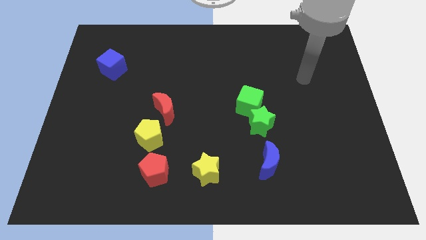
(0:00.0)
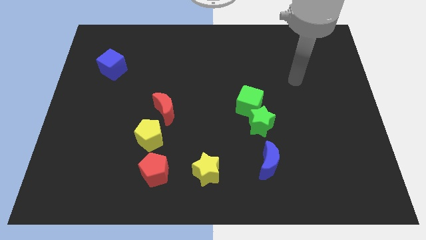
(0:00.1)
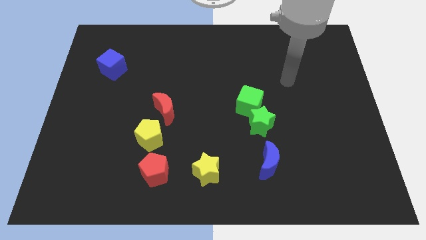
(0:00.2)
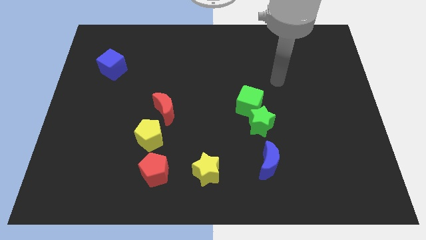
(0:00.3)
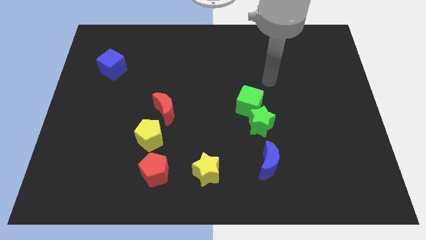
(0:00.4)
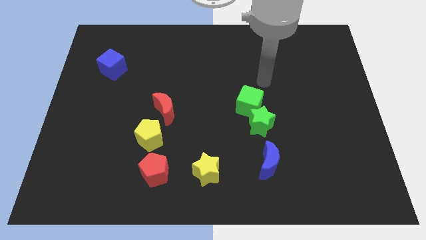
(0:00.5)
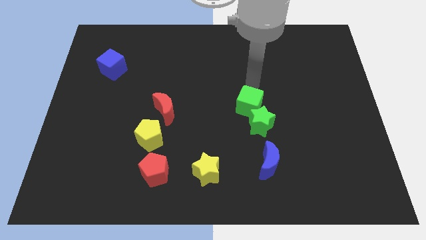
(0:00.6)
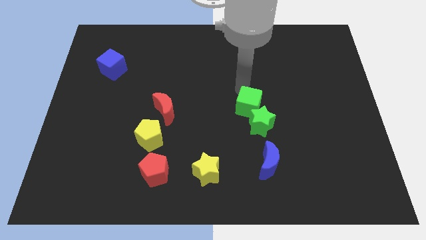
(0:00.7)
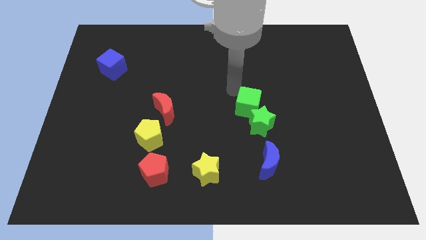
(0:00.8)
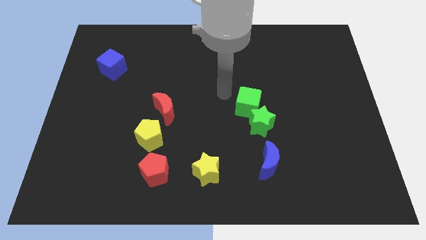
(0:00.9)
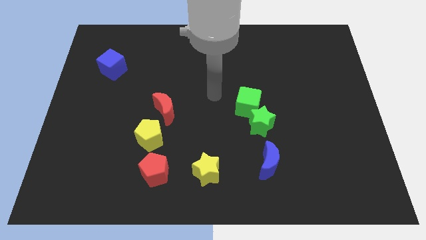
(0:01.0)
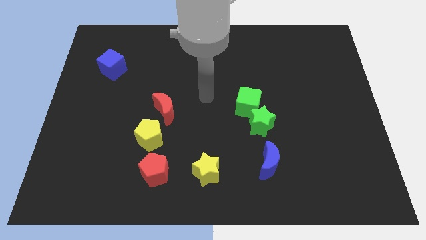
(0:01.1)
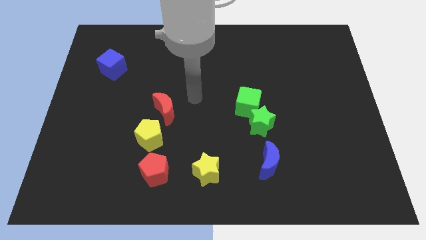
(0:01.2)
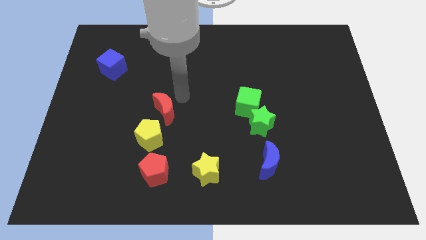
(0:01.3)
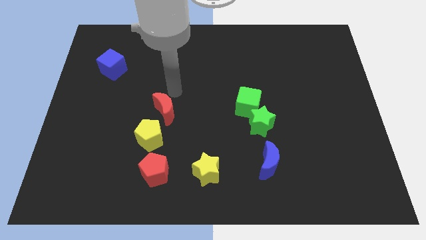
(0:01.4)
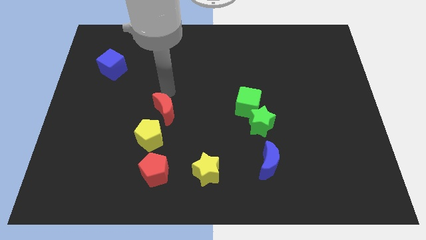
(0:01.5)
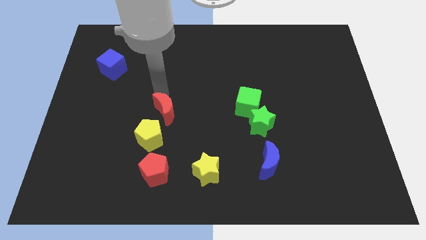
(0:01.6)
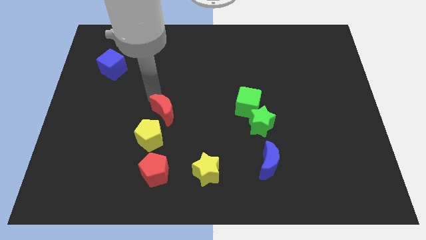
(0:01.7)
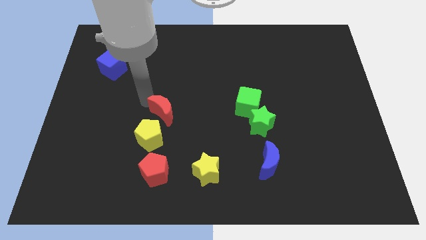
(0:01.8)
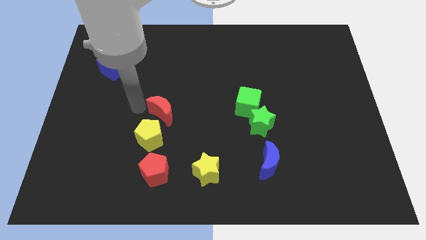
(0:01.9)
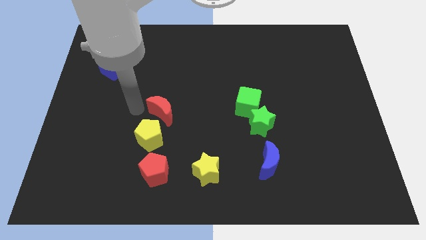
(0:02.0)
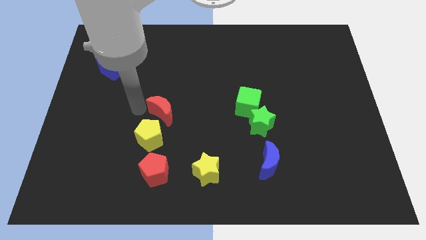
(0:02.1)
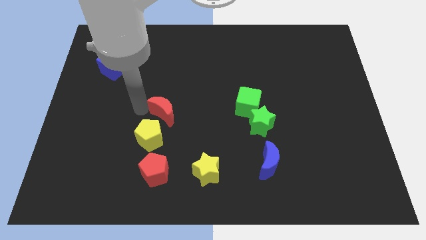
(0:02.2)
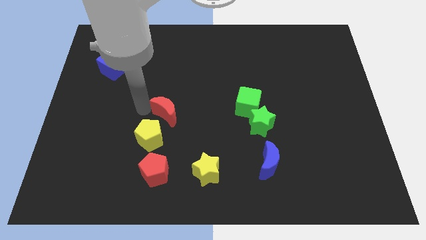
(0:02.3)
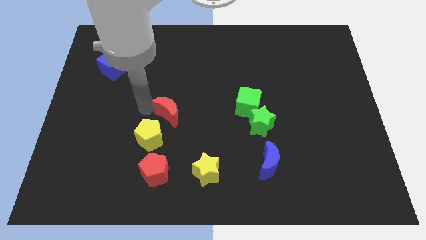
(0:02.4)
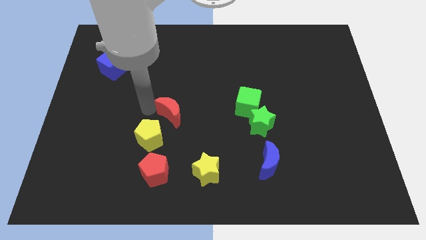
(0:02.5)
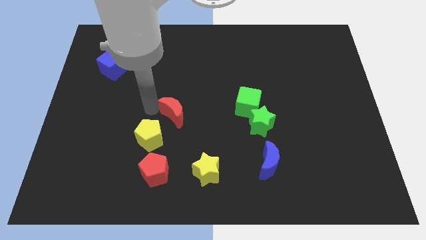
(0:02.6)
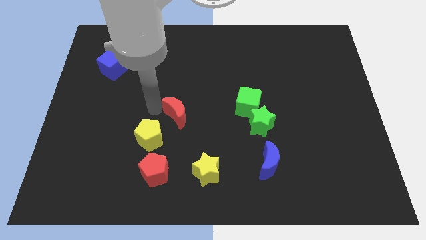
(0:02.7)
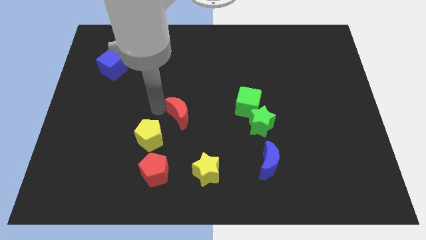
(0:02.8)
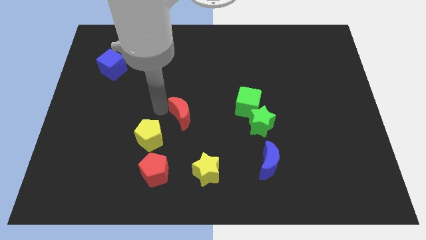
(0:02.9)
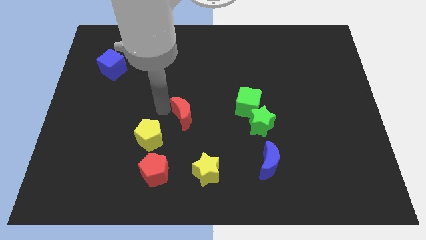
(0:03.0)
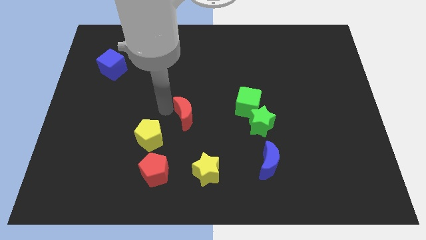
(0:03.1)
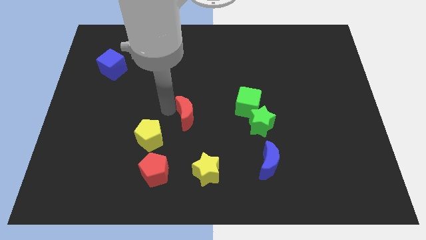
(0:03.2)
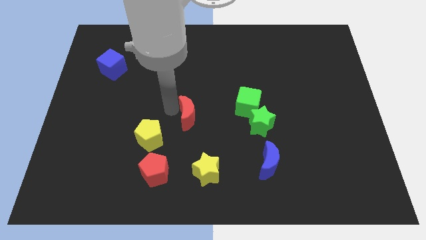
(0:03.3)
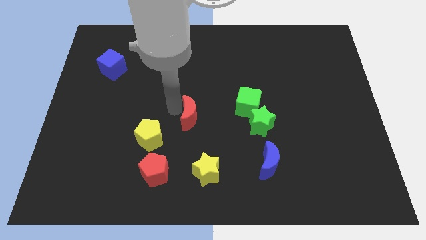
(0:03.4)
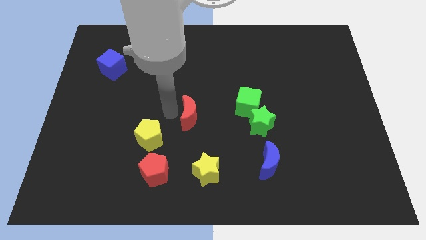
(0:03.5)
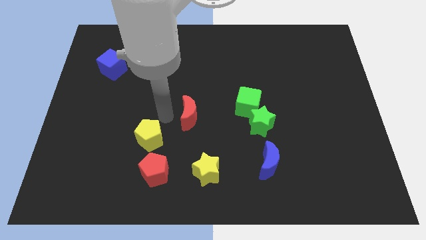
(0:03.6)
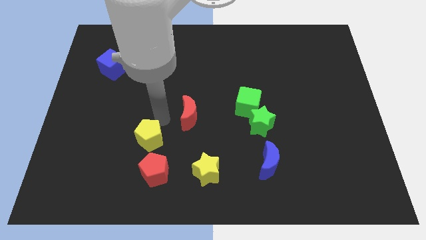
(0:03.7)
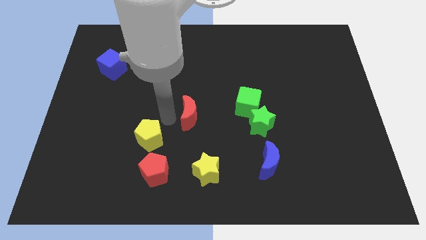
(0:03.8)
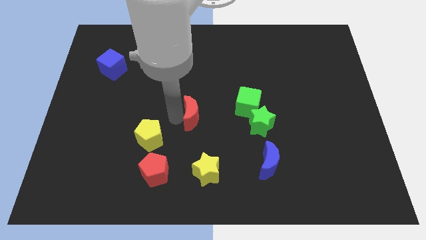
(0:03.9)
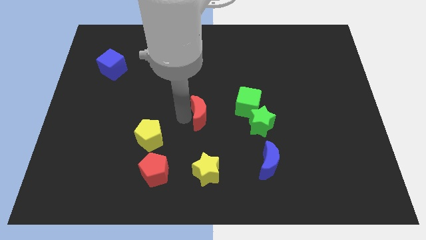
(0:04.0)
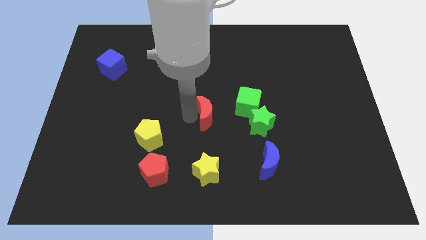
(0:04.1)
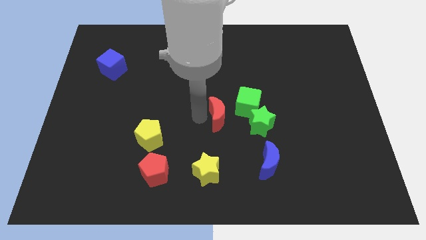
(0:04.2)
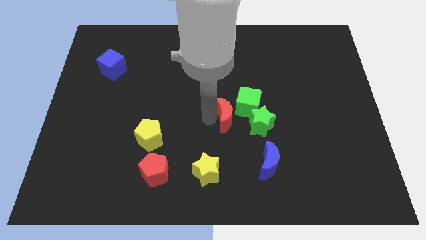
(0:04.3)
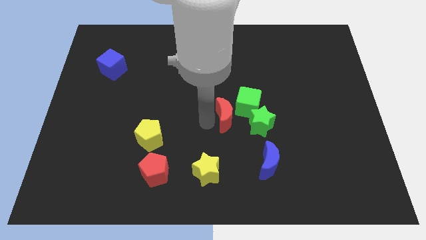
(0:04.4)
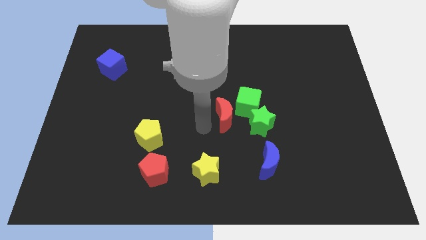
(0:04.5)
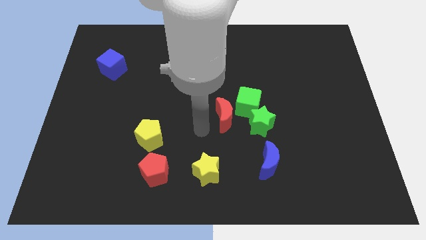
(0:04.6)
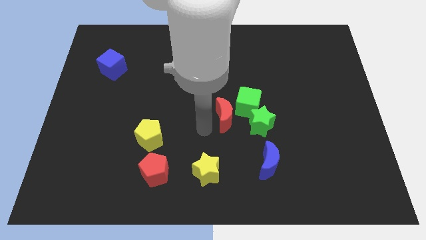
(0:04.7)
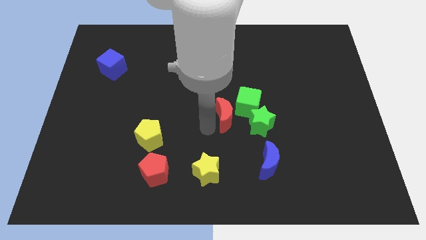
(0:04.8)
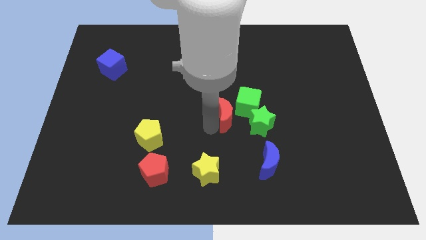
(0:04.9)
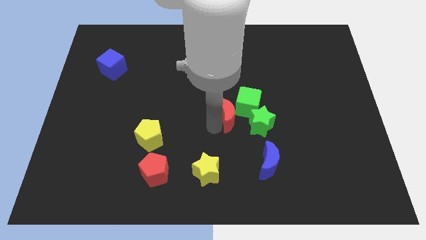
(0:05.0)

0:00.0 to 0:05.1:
move the red moon towards the green cube

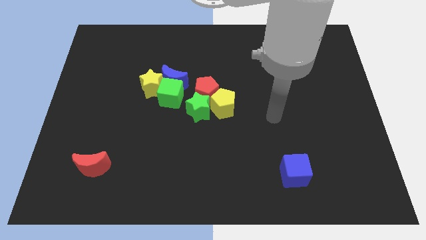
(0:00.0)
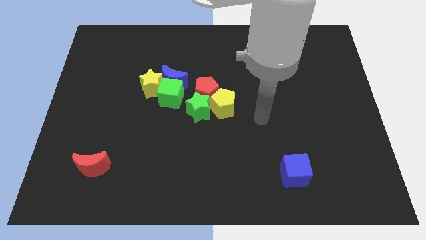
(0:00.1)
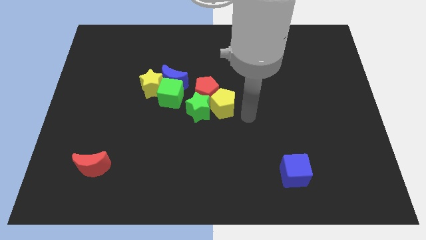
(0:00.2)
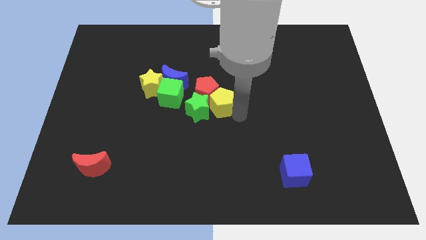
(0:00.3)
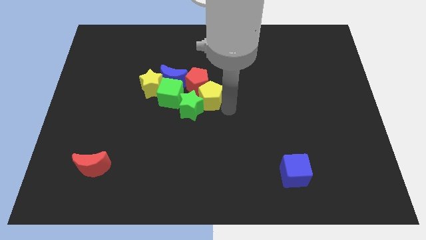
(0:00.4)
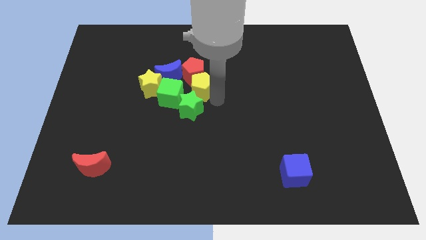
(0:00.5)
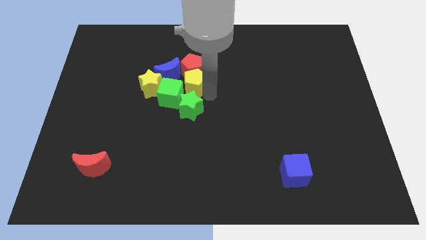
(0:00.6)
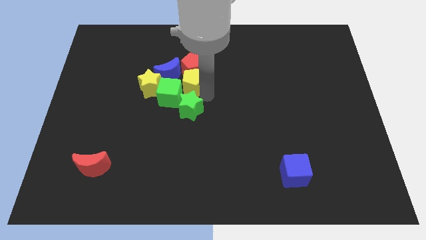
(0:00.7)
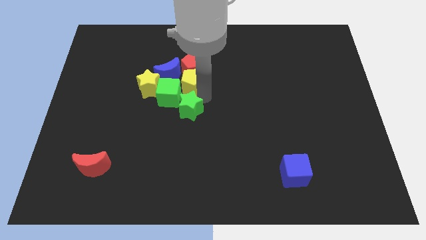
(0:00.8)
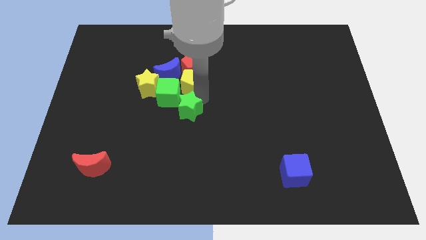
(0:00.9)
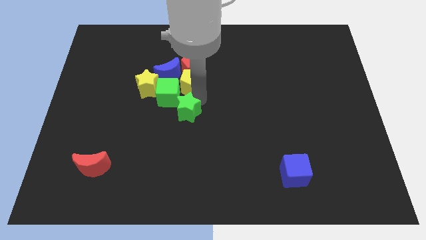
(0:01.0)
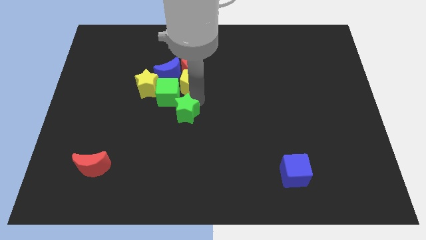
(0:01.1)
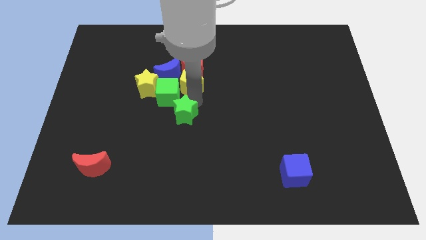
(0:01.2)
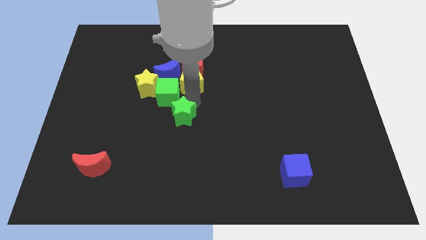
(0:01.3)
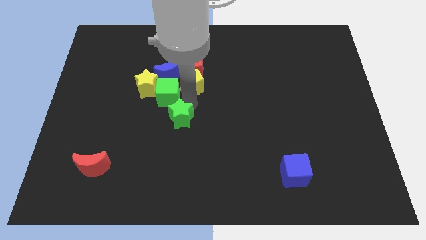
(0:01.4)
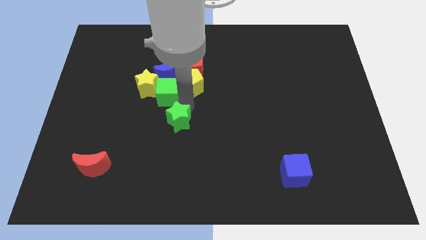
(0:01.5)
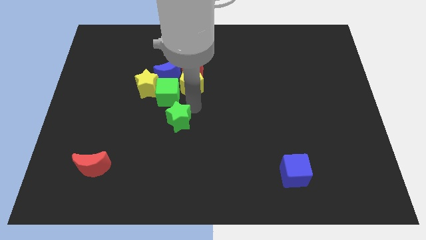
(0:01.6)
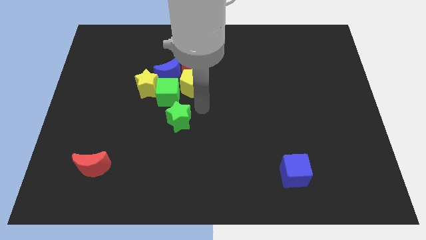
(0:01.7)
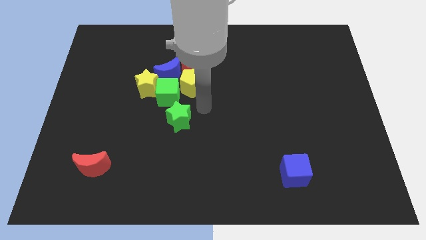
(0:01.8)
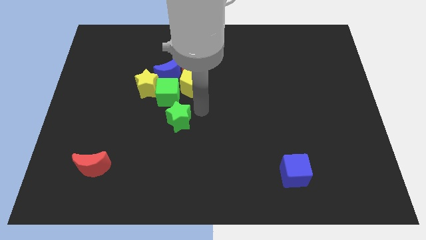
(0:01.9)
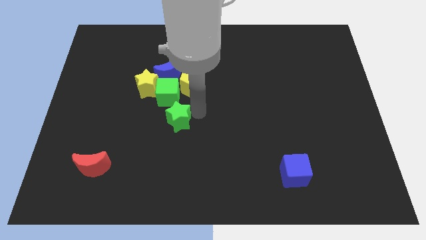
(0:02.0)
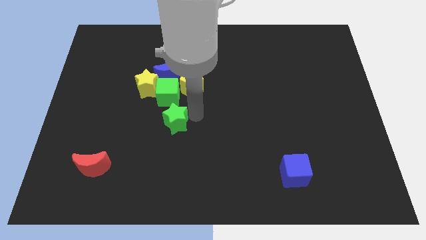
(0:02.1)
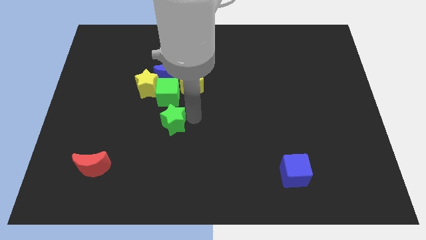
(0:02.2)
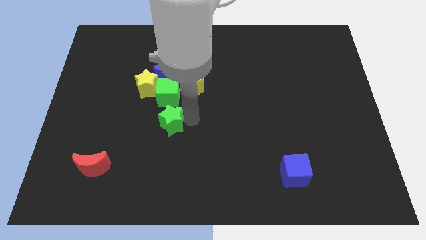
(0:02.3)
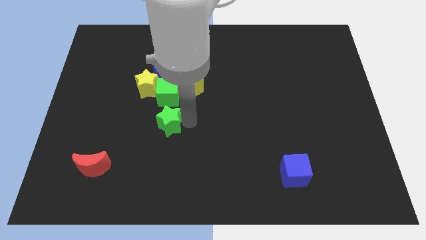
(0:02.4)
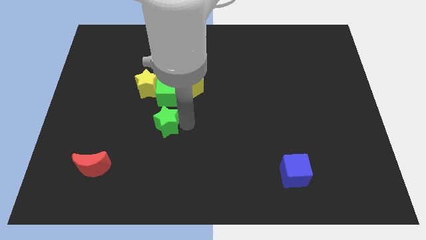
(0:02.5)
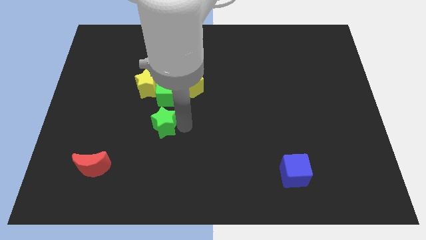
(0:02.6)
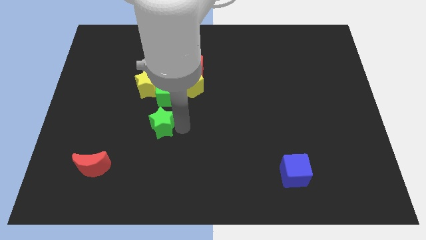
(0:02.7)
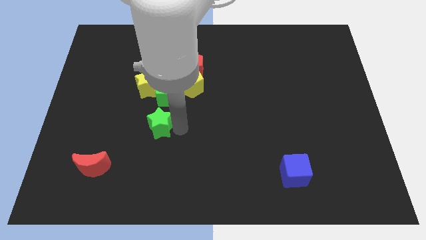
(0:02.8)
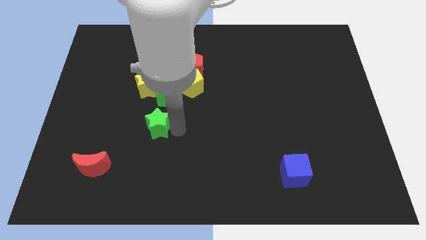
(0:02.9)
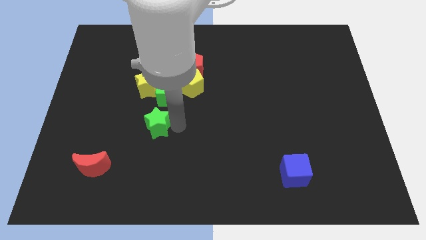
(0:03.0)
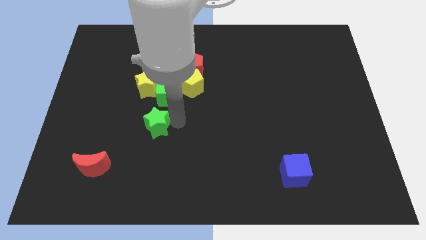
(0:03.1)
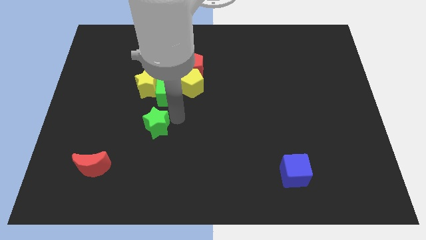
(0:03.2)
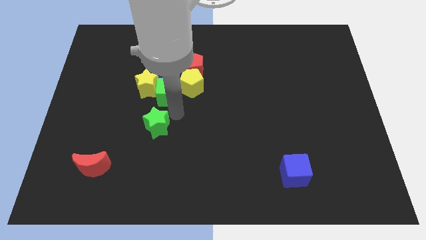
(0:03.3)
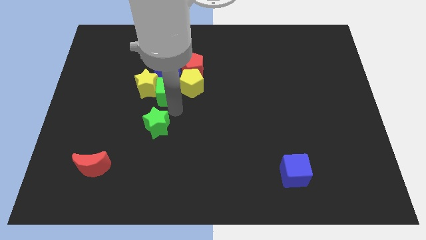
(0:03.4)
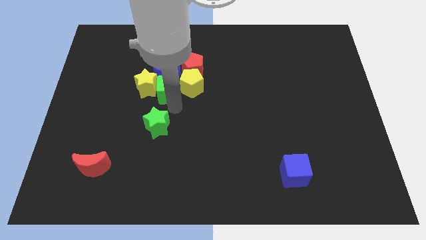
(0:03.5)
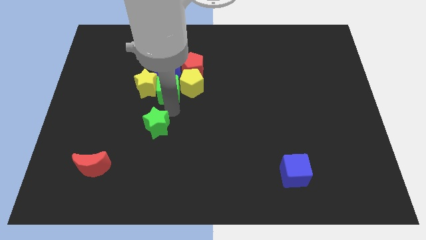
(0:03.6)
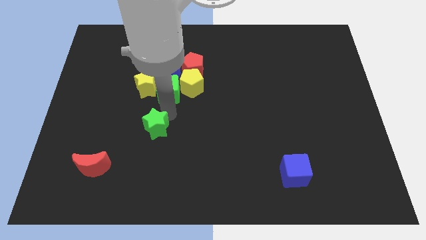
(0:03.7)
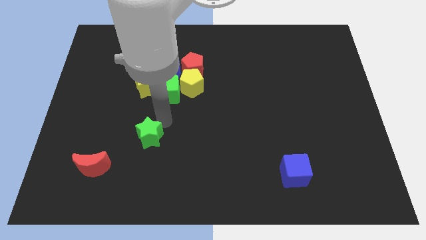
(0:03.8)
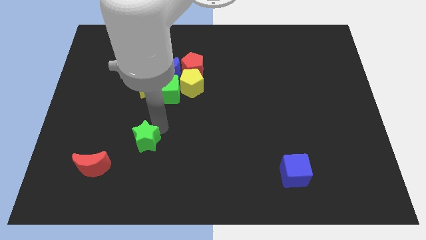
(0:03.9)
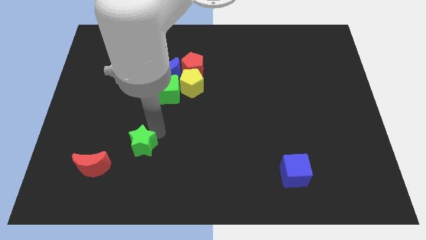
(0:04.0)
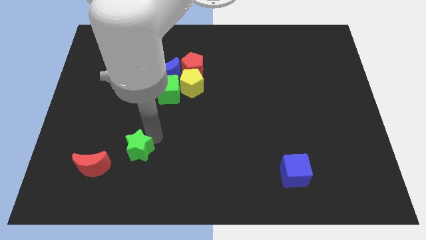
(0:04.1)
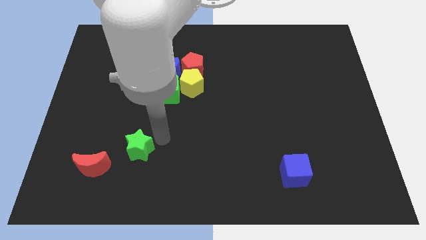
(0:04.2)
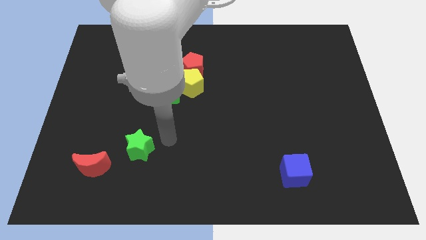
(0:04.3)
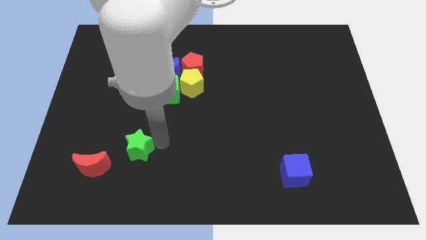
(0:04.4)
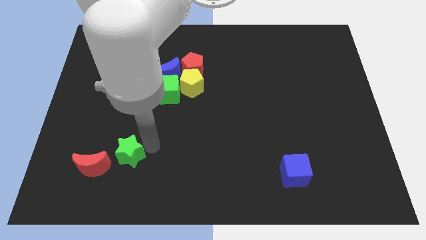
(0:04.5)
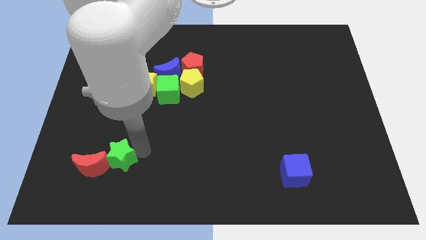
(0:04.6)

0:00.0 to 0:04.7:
put the green star next to the red moon
